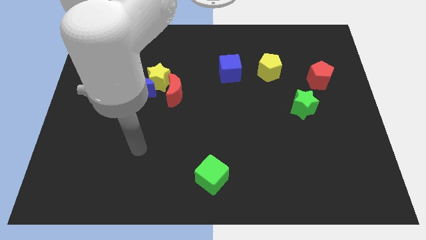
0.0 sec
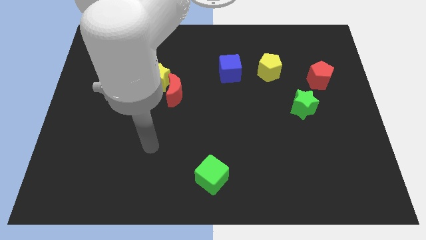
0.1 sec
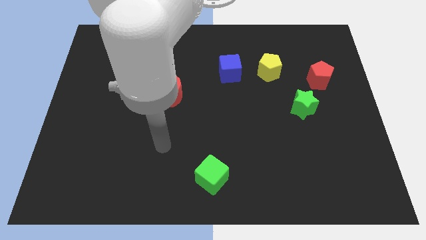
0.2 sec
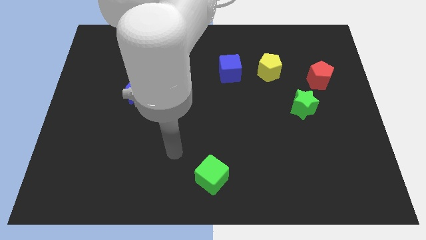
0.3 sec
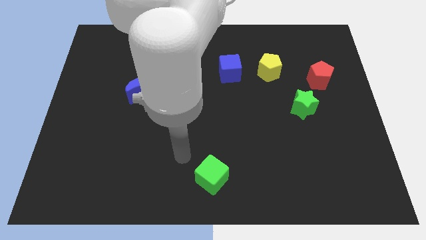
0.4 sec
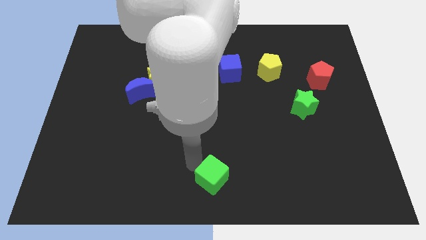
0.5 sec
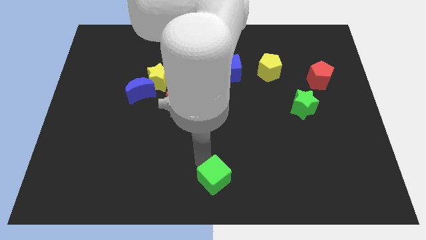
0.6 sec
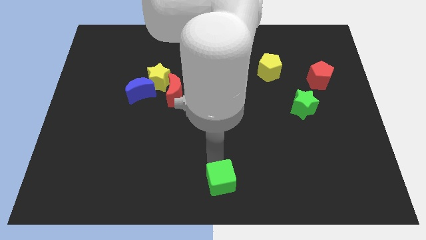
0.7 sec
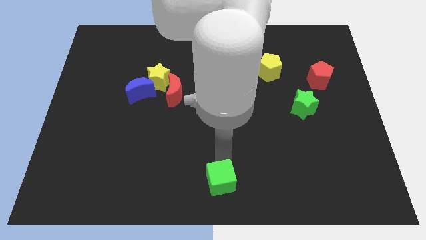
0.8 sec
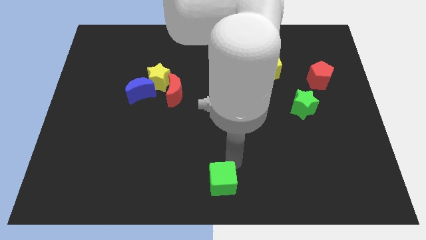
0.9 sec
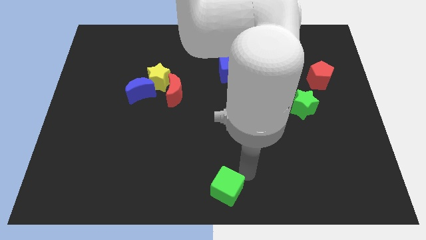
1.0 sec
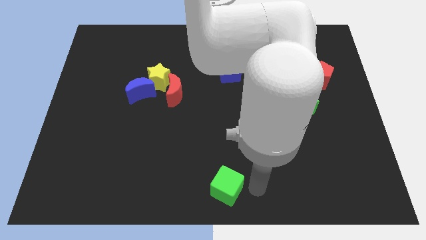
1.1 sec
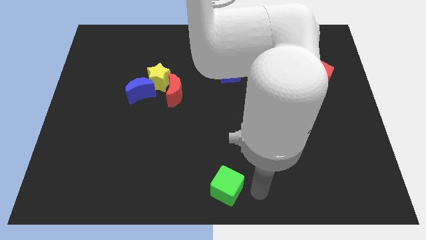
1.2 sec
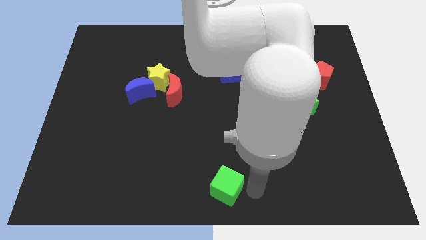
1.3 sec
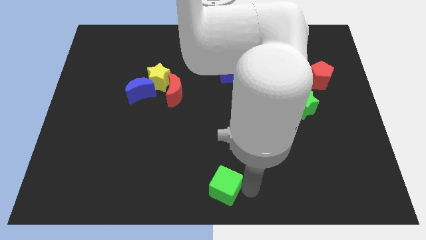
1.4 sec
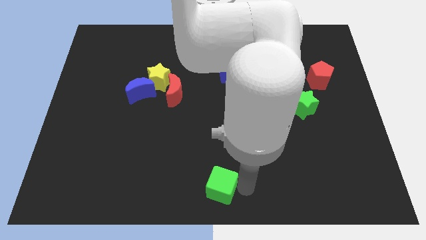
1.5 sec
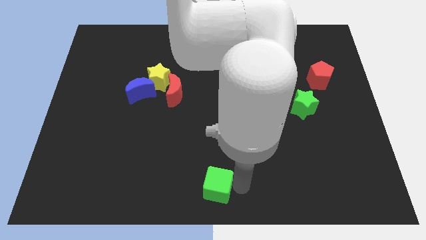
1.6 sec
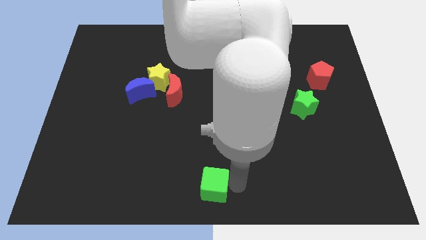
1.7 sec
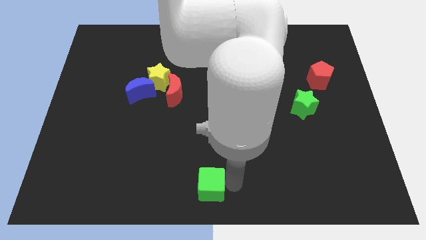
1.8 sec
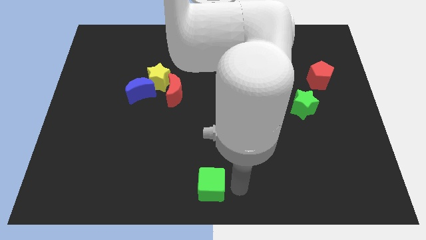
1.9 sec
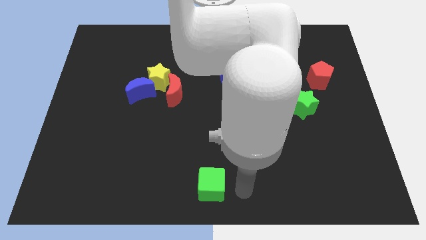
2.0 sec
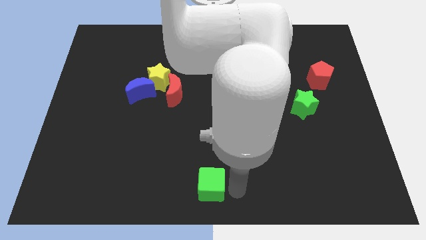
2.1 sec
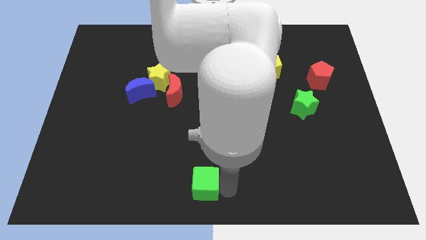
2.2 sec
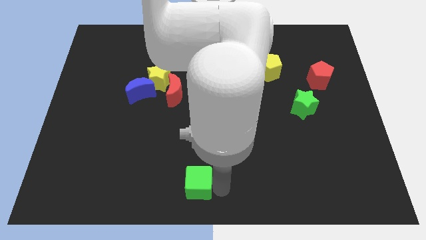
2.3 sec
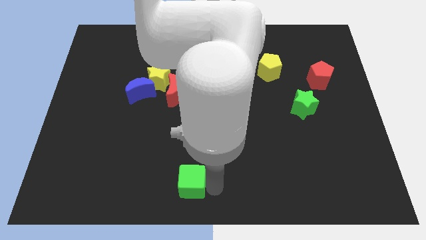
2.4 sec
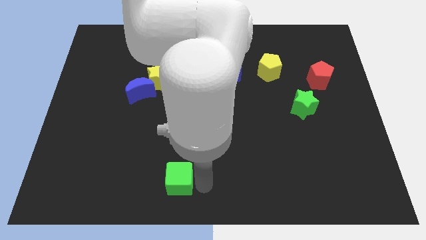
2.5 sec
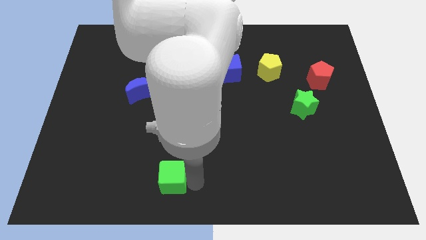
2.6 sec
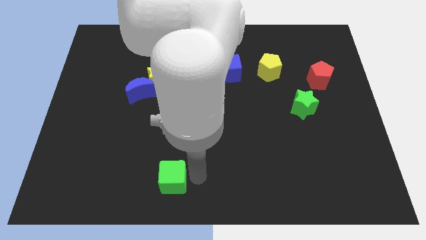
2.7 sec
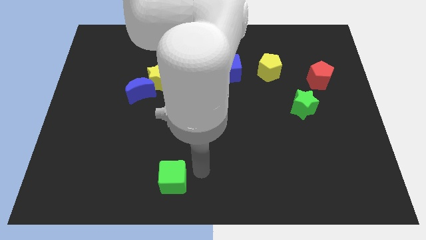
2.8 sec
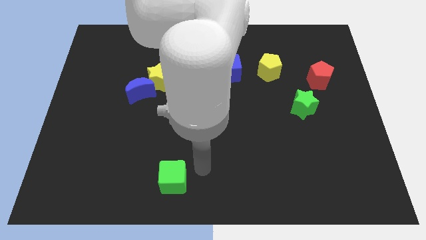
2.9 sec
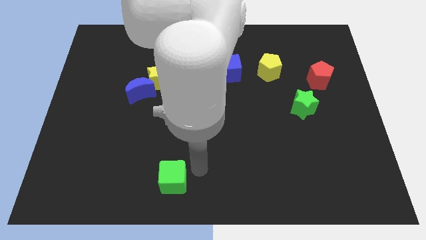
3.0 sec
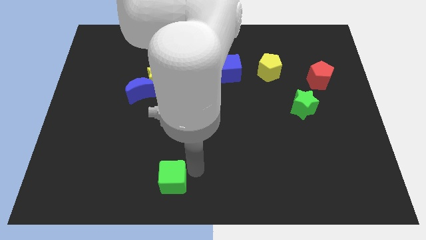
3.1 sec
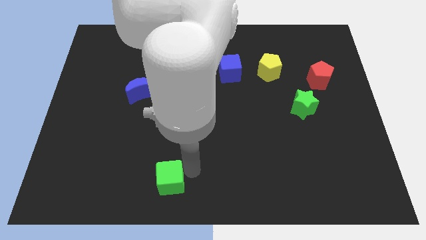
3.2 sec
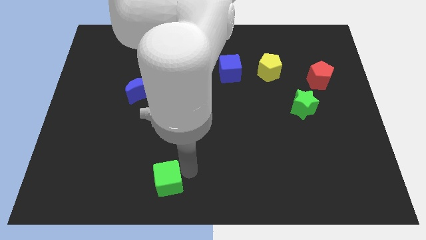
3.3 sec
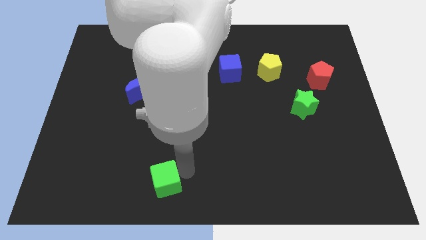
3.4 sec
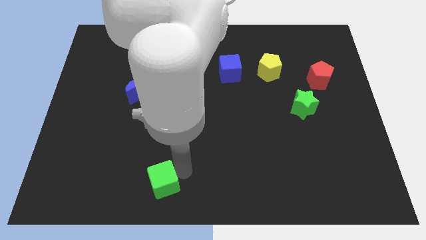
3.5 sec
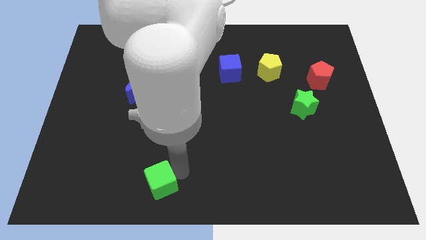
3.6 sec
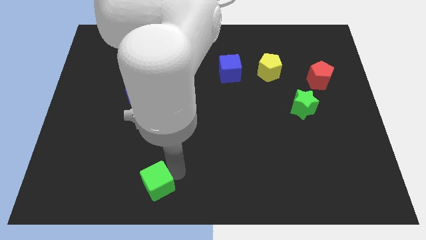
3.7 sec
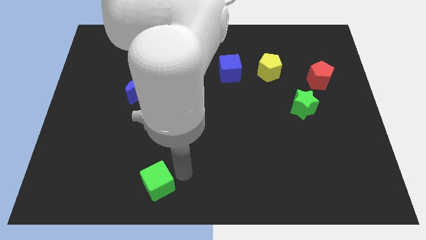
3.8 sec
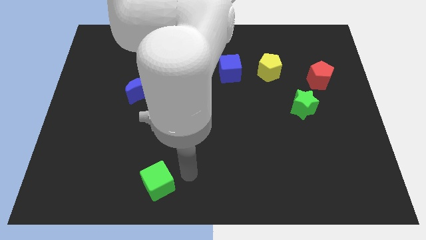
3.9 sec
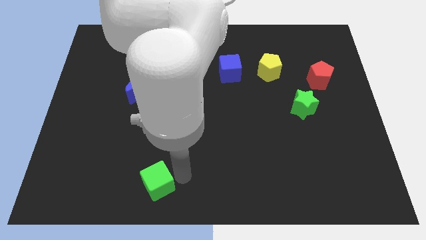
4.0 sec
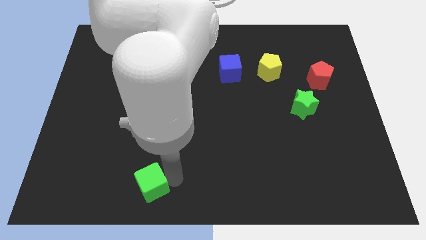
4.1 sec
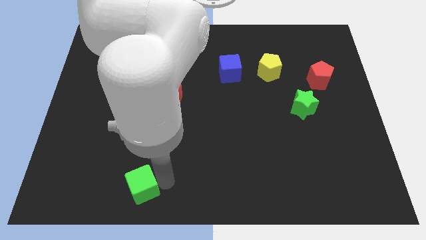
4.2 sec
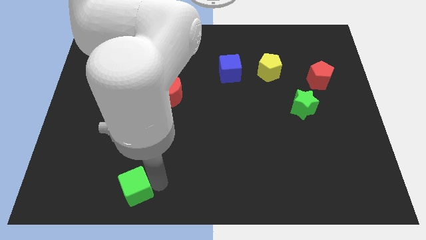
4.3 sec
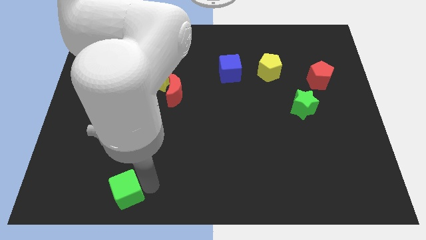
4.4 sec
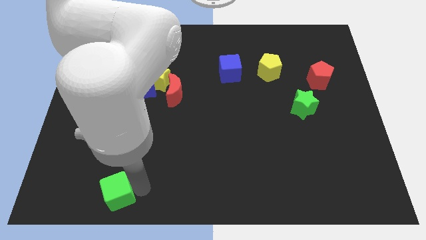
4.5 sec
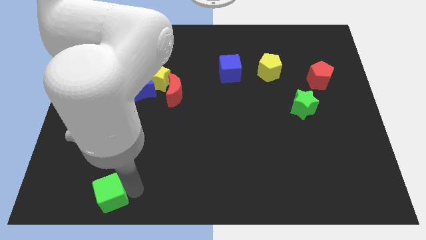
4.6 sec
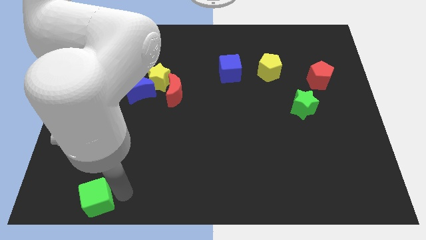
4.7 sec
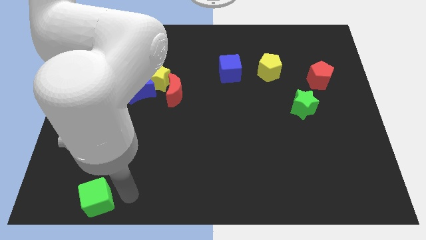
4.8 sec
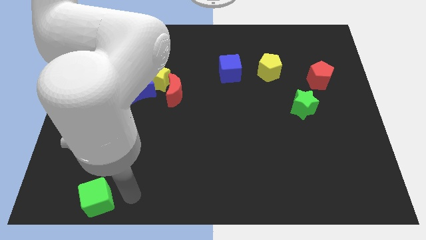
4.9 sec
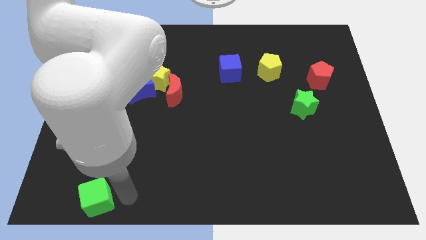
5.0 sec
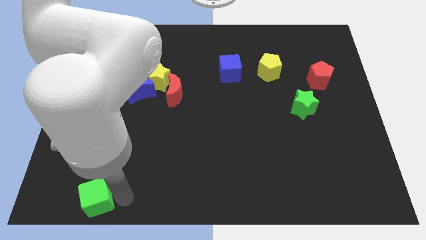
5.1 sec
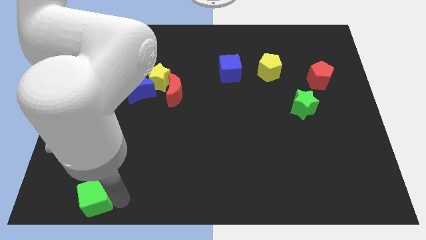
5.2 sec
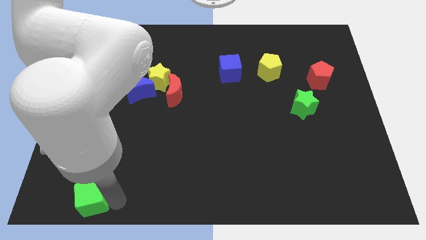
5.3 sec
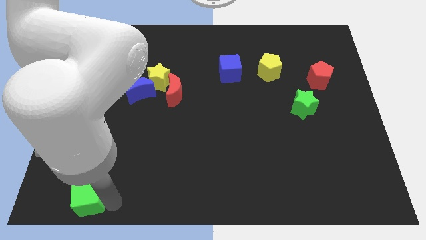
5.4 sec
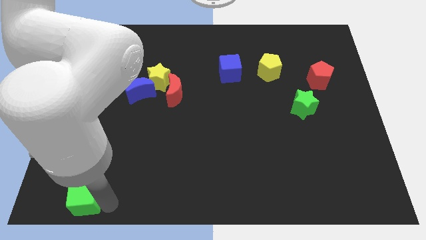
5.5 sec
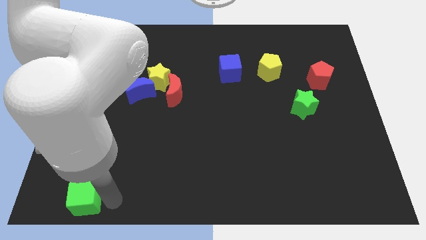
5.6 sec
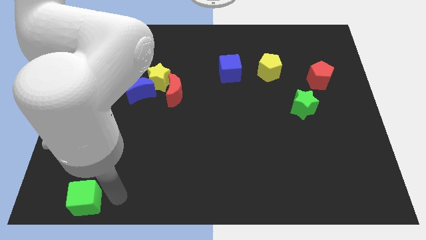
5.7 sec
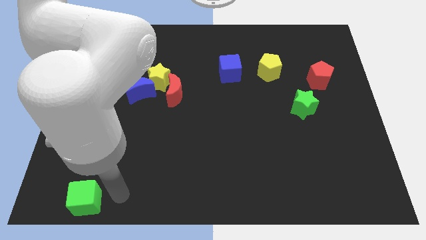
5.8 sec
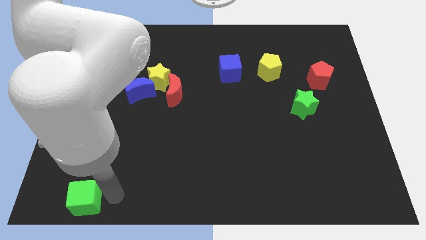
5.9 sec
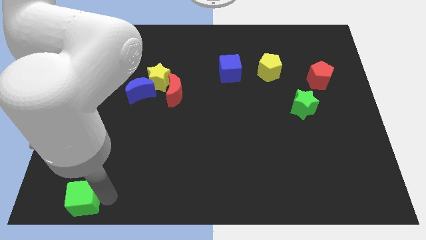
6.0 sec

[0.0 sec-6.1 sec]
put the green cube to the bottom left corner
